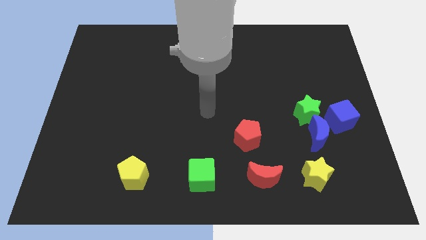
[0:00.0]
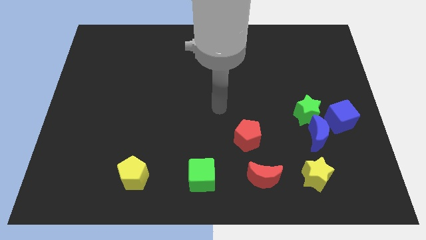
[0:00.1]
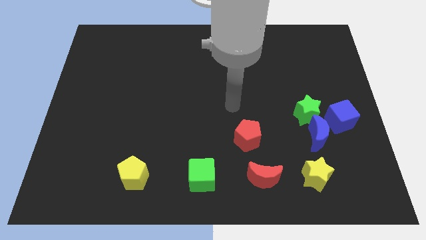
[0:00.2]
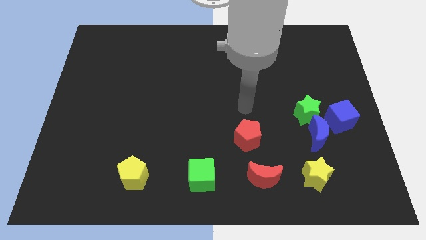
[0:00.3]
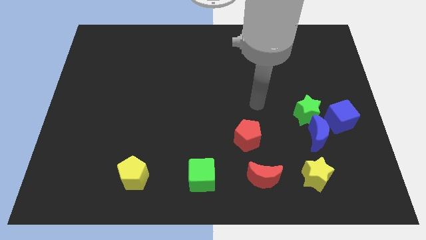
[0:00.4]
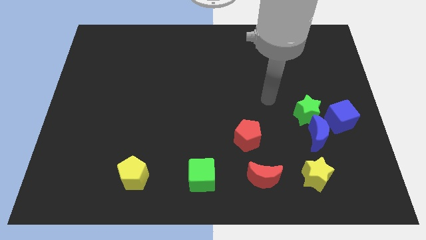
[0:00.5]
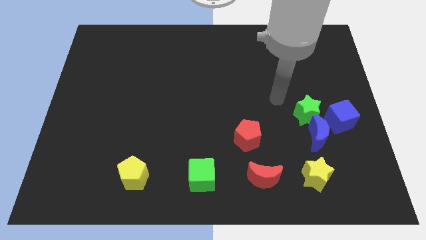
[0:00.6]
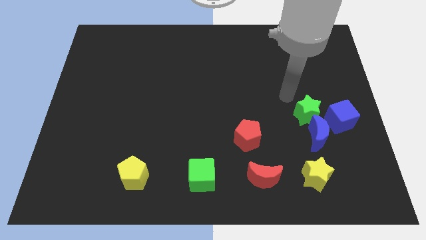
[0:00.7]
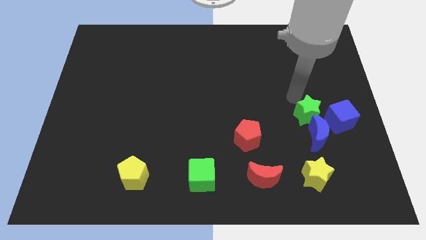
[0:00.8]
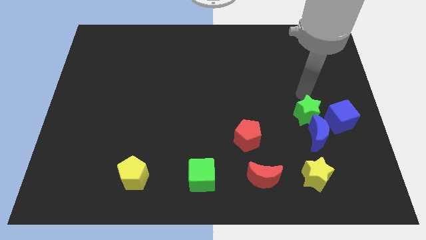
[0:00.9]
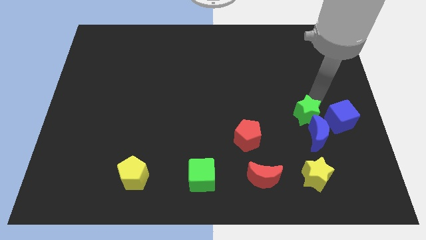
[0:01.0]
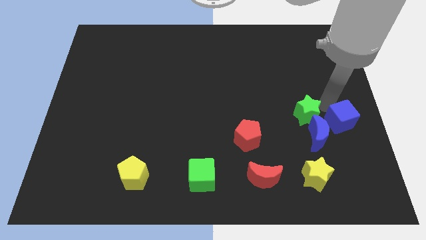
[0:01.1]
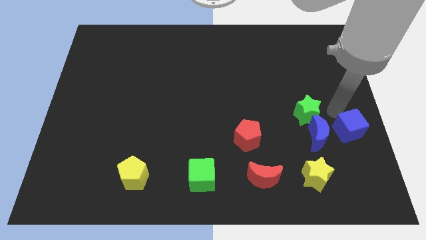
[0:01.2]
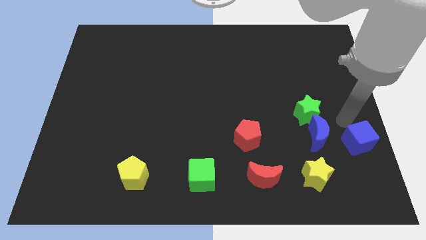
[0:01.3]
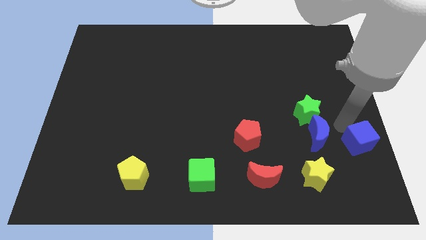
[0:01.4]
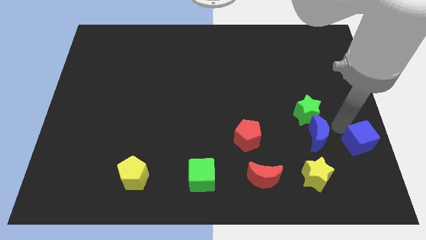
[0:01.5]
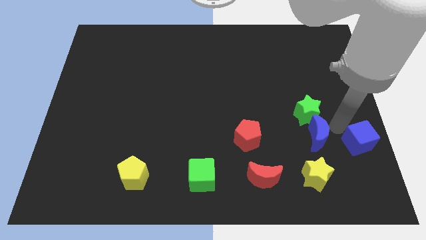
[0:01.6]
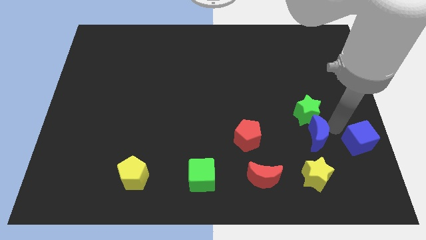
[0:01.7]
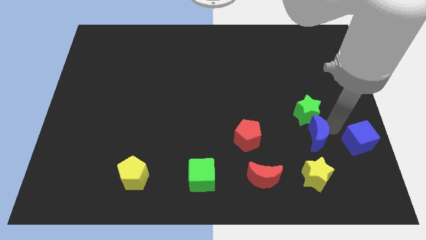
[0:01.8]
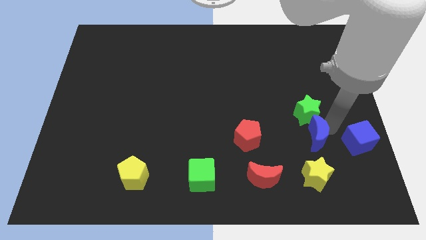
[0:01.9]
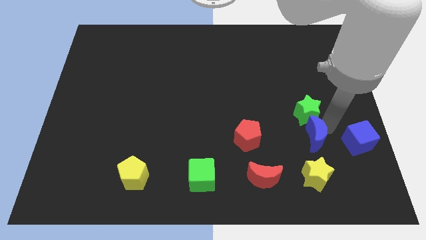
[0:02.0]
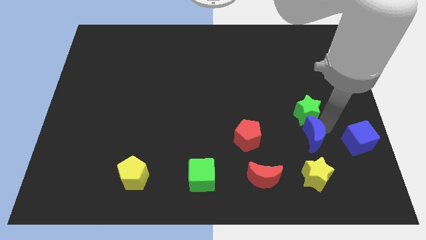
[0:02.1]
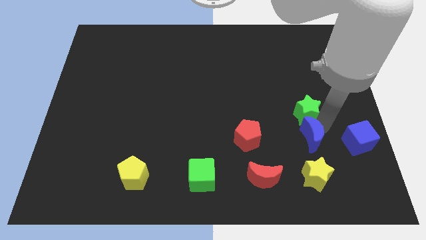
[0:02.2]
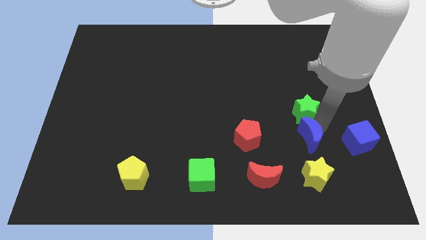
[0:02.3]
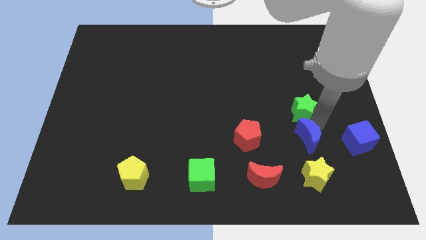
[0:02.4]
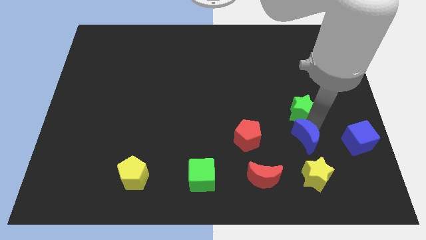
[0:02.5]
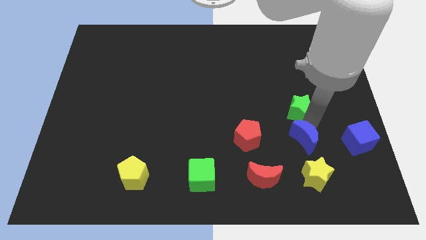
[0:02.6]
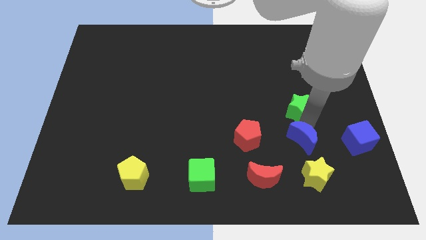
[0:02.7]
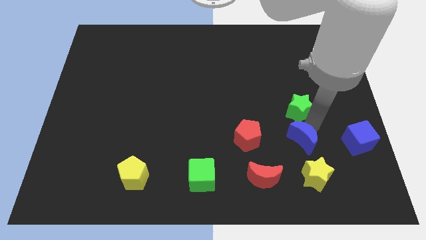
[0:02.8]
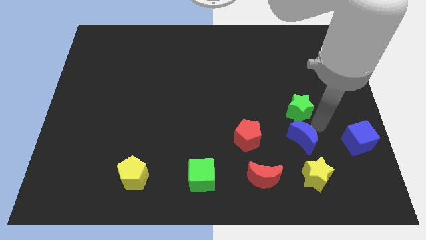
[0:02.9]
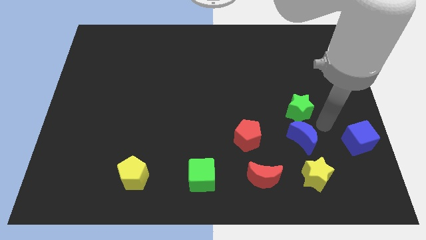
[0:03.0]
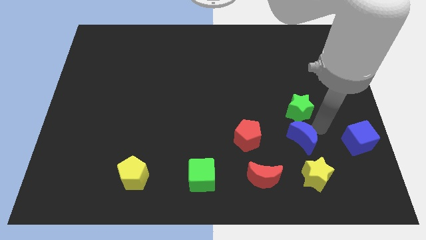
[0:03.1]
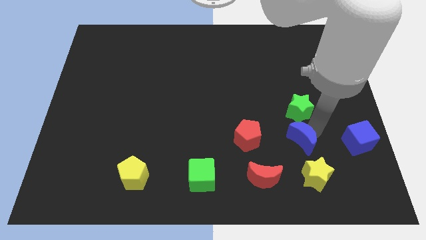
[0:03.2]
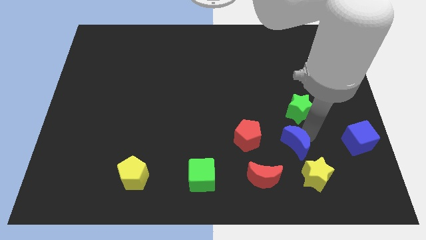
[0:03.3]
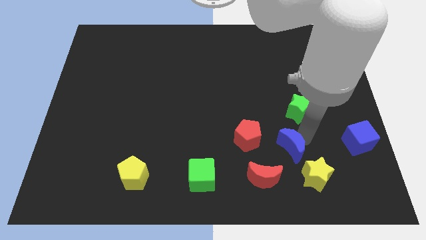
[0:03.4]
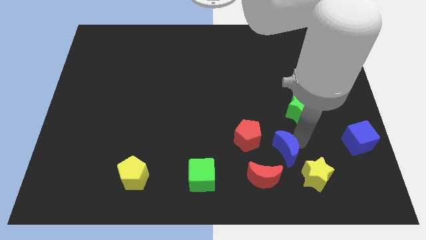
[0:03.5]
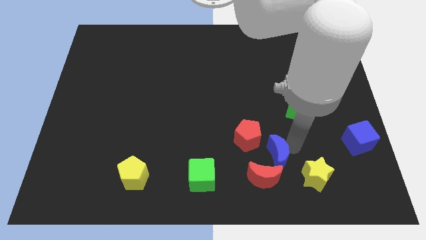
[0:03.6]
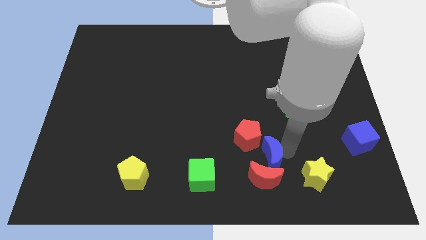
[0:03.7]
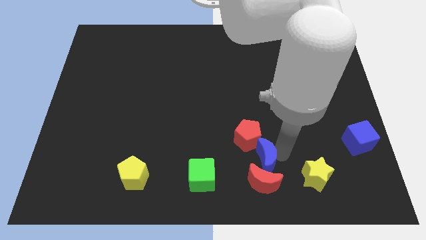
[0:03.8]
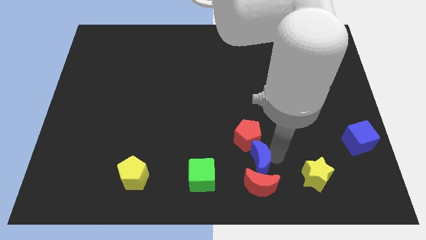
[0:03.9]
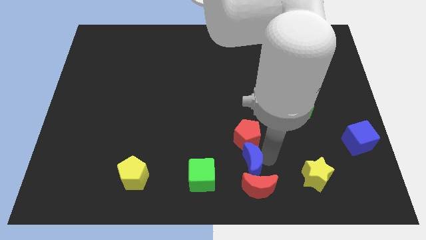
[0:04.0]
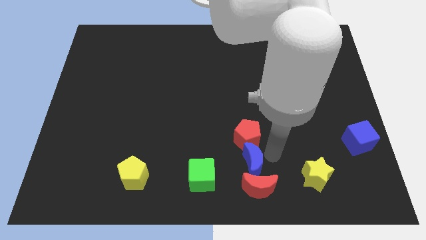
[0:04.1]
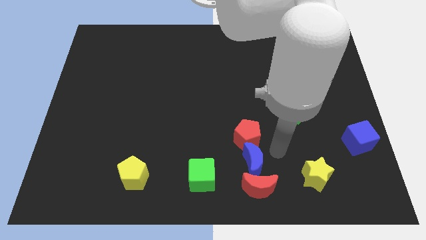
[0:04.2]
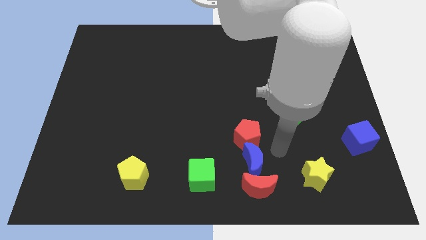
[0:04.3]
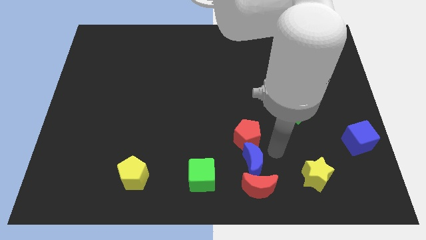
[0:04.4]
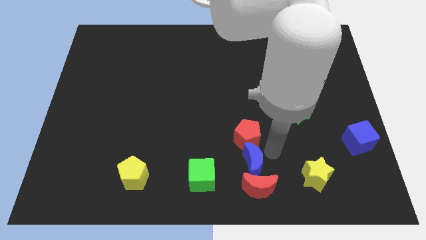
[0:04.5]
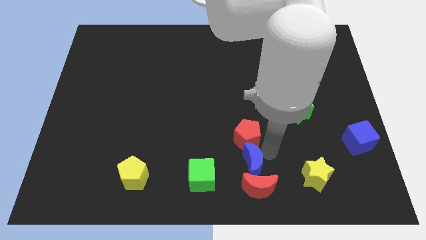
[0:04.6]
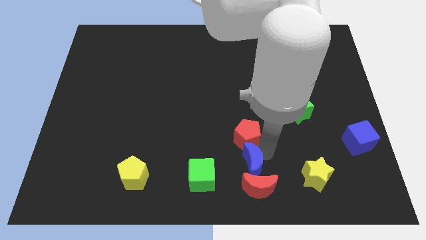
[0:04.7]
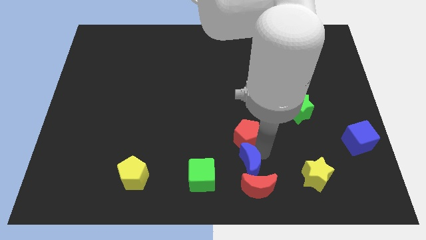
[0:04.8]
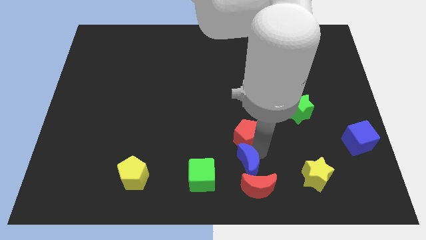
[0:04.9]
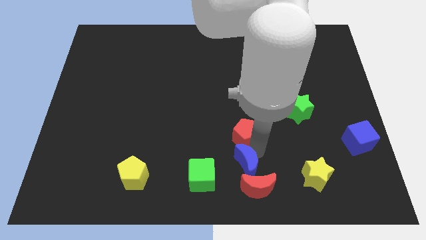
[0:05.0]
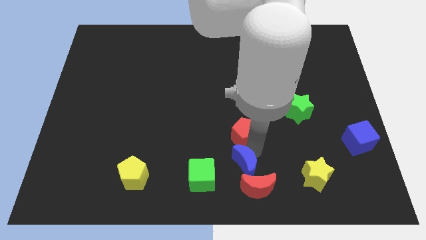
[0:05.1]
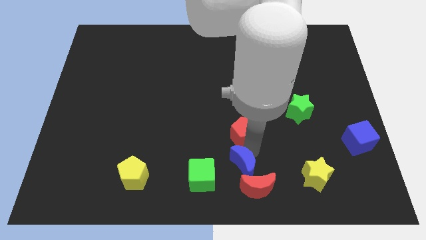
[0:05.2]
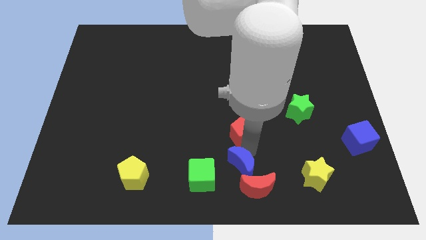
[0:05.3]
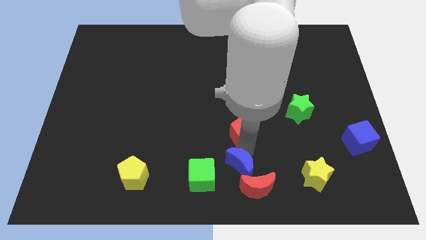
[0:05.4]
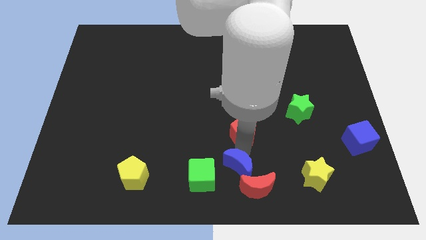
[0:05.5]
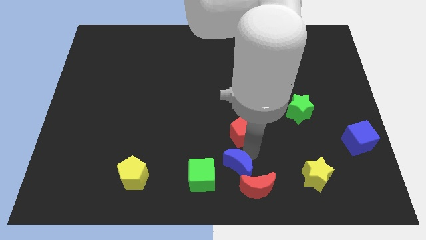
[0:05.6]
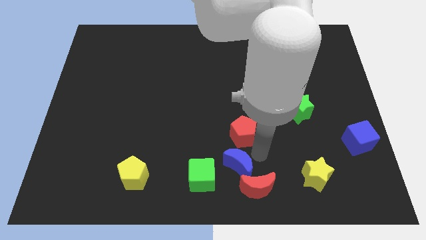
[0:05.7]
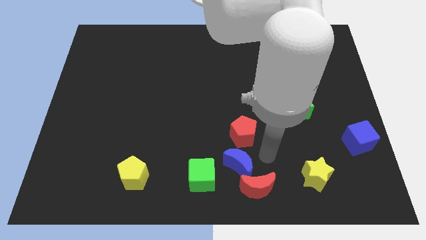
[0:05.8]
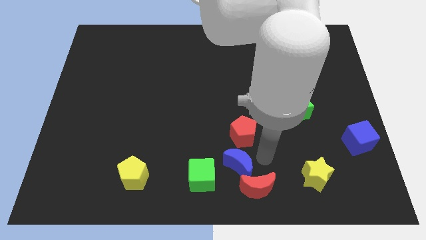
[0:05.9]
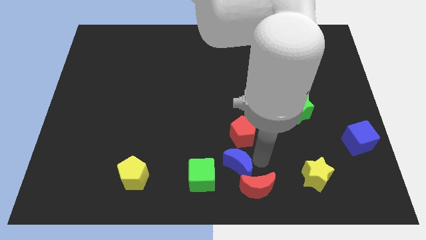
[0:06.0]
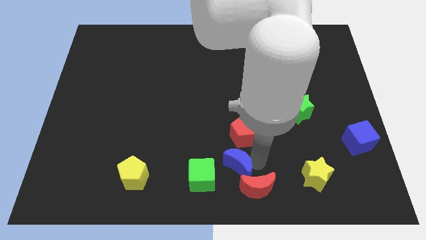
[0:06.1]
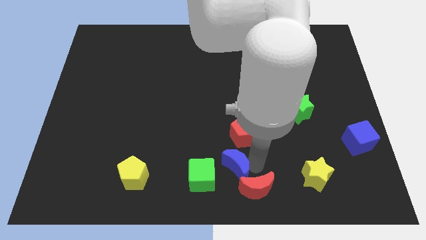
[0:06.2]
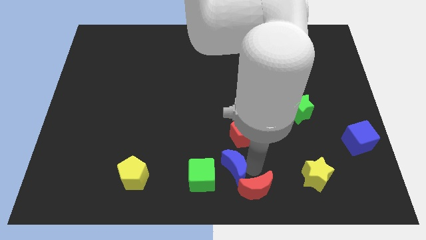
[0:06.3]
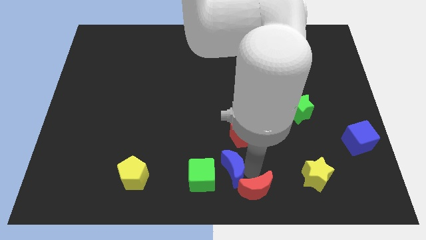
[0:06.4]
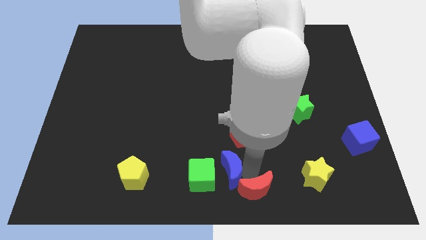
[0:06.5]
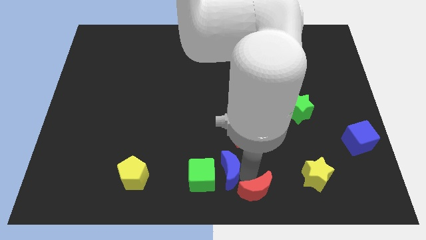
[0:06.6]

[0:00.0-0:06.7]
move the blue moon towards the green cube

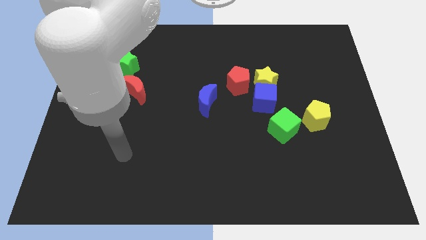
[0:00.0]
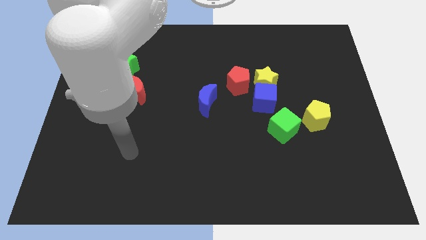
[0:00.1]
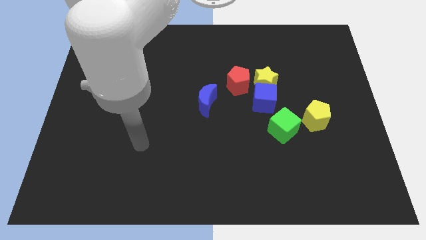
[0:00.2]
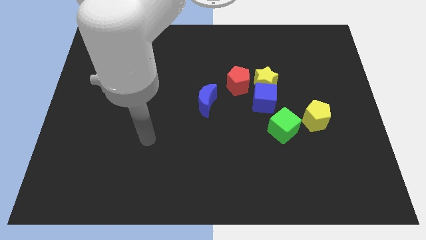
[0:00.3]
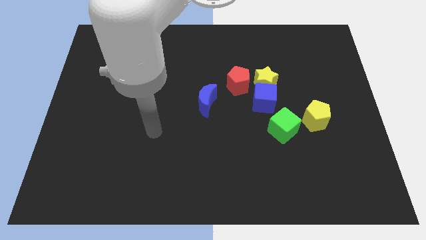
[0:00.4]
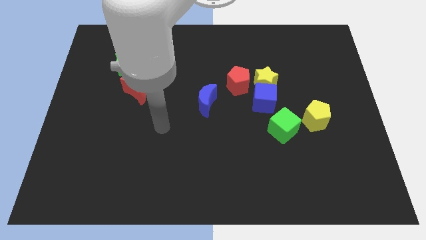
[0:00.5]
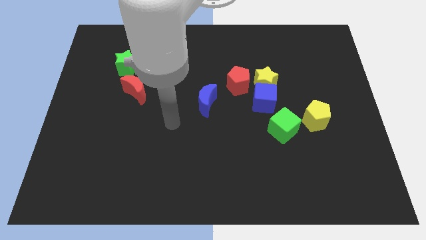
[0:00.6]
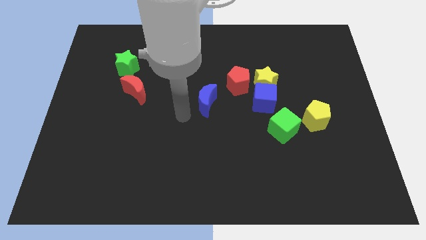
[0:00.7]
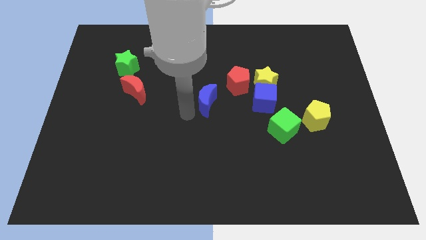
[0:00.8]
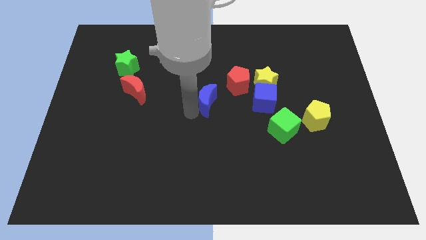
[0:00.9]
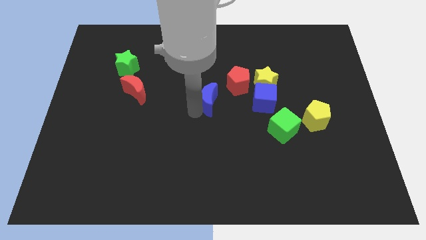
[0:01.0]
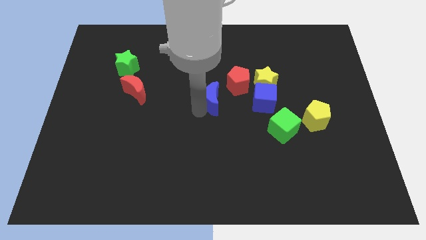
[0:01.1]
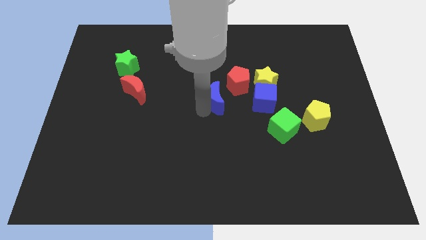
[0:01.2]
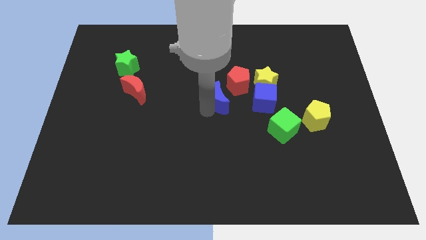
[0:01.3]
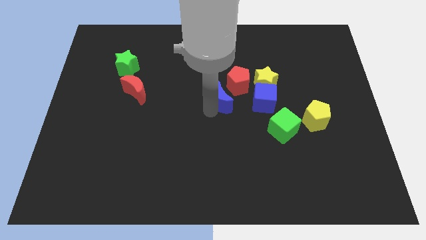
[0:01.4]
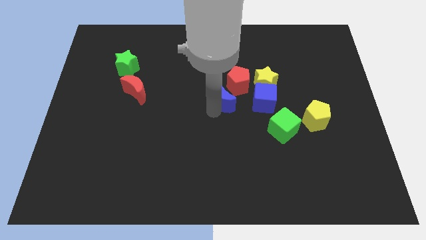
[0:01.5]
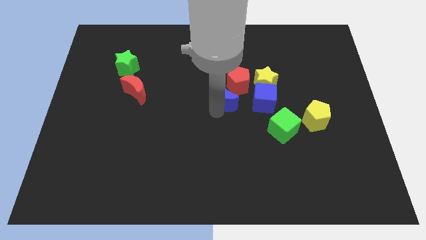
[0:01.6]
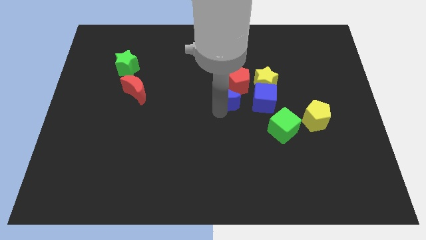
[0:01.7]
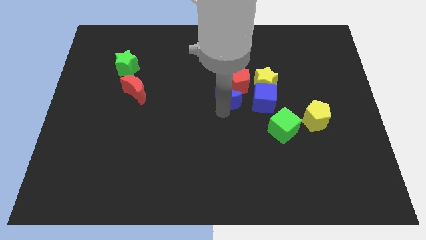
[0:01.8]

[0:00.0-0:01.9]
put the blue moon towards the red pentagon
